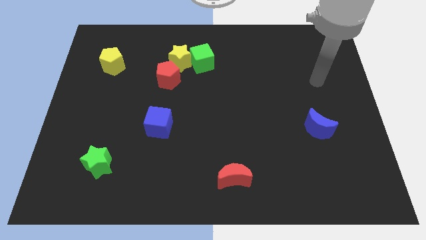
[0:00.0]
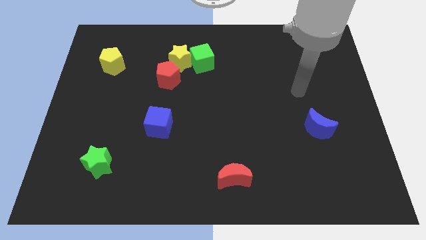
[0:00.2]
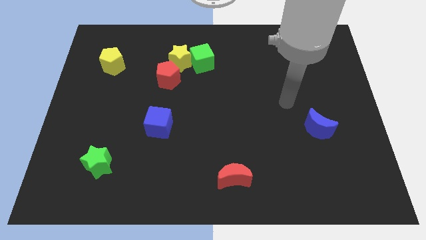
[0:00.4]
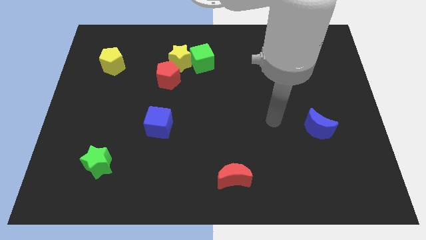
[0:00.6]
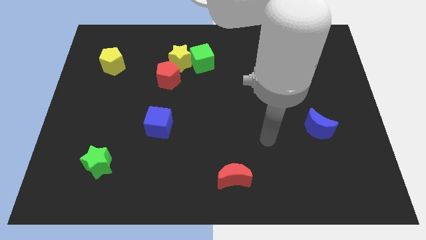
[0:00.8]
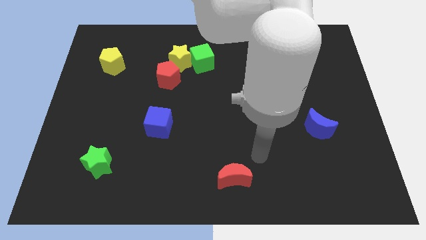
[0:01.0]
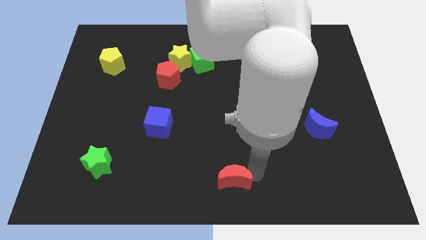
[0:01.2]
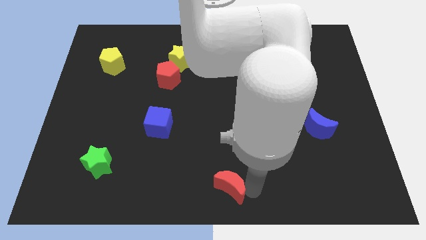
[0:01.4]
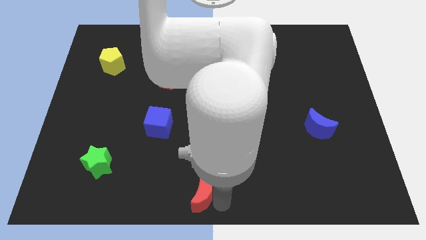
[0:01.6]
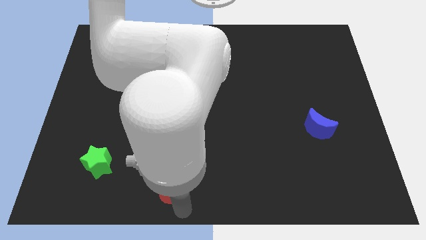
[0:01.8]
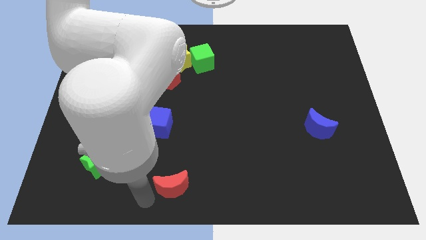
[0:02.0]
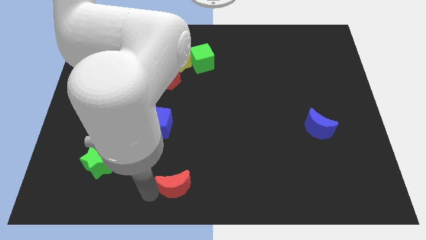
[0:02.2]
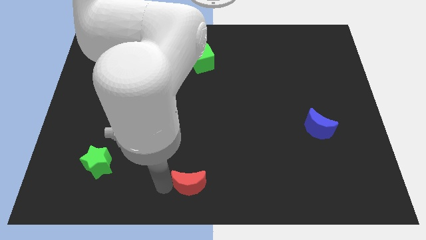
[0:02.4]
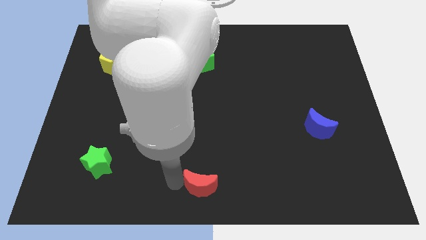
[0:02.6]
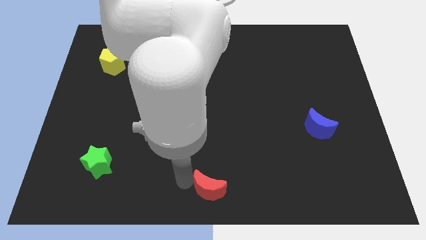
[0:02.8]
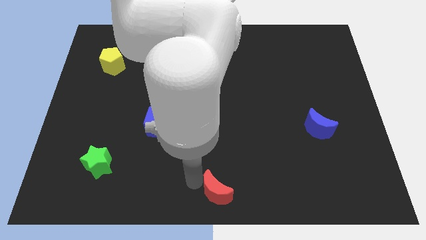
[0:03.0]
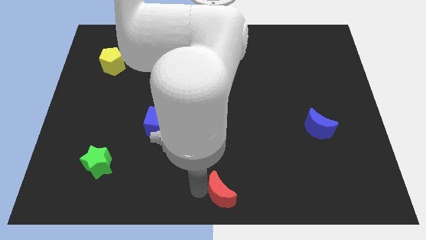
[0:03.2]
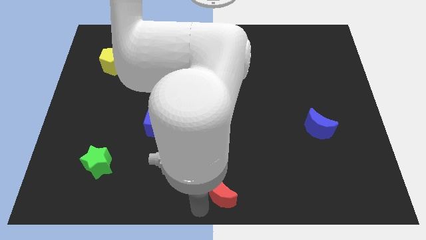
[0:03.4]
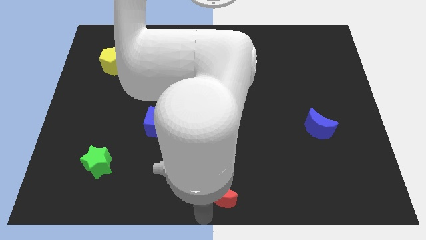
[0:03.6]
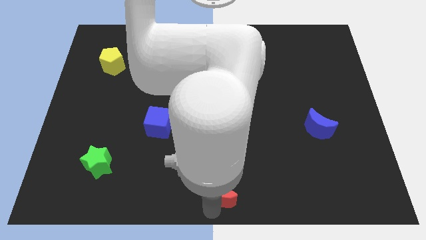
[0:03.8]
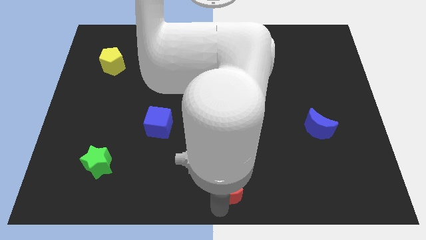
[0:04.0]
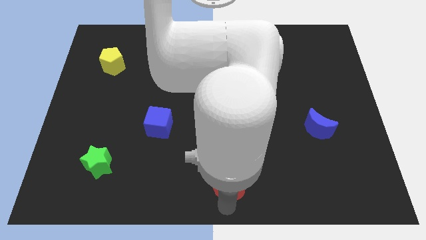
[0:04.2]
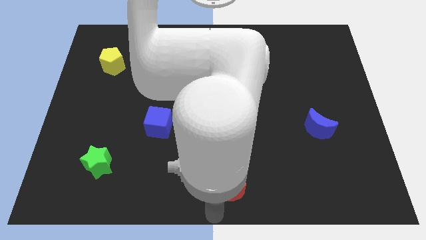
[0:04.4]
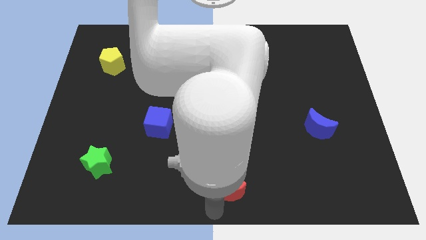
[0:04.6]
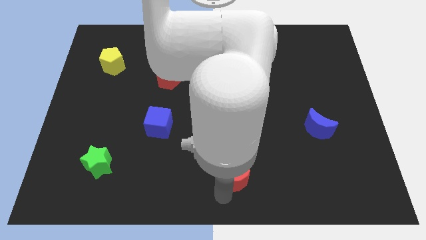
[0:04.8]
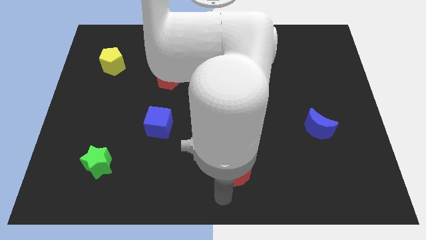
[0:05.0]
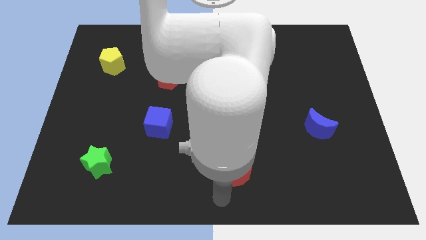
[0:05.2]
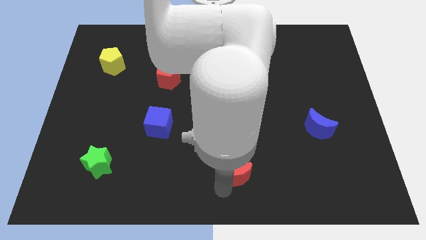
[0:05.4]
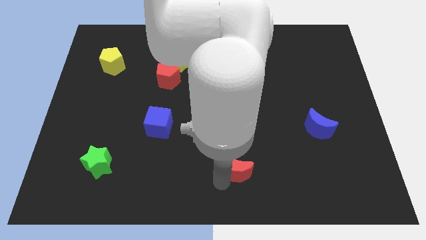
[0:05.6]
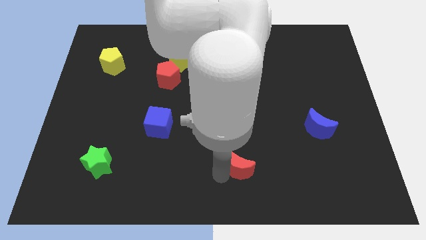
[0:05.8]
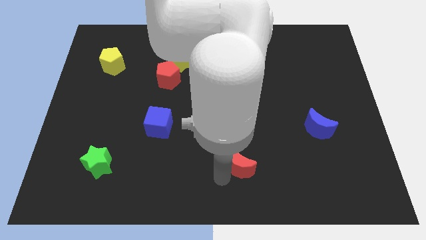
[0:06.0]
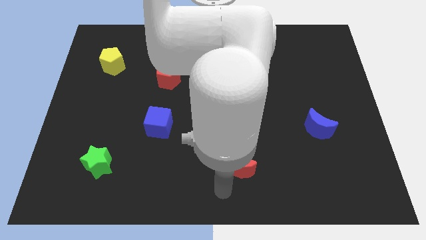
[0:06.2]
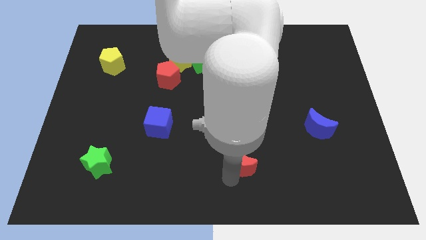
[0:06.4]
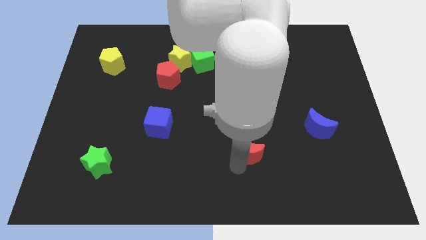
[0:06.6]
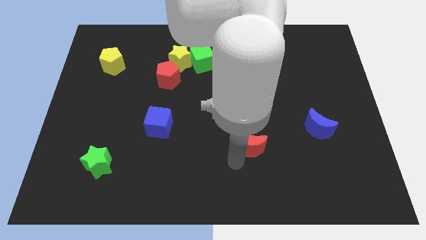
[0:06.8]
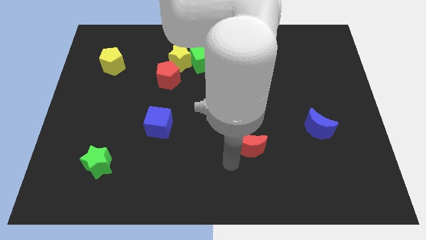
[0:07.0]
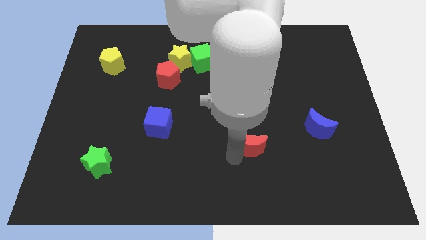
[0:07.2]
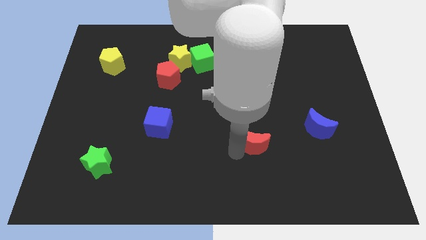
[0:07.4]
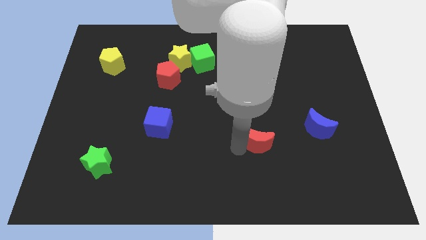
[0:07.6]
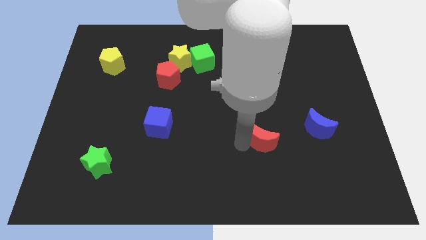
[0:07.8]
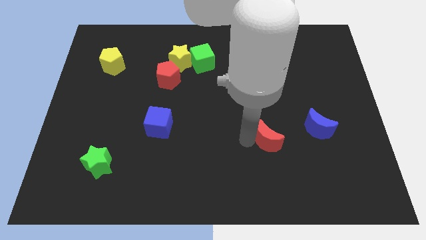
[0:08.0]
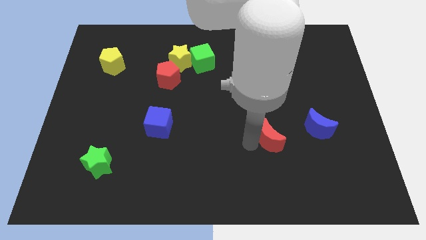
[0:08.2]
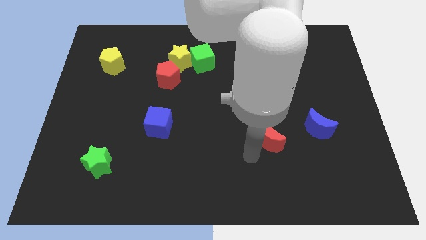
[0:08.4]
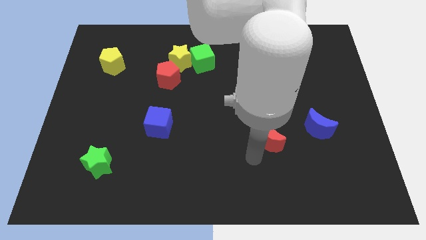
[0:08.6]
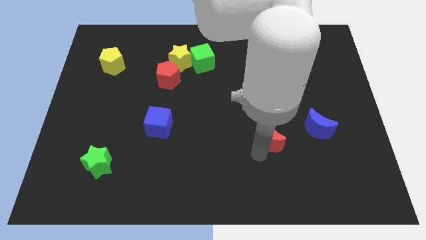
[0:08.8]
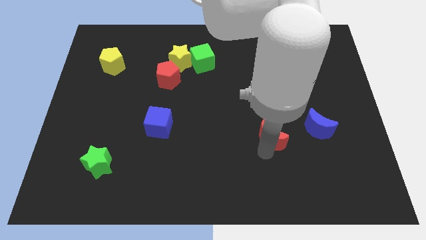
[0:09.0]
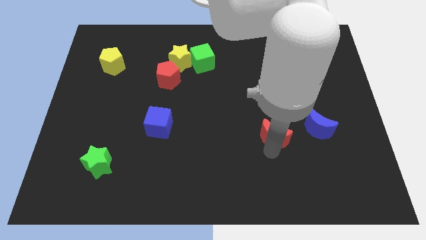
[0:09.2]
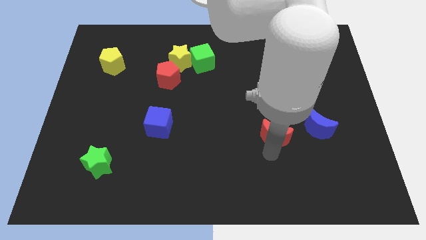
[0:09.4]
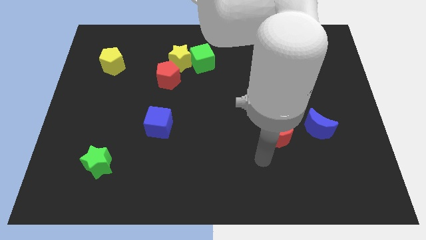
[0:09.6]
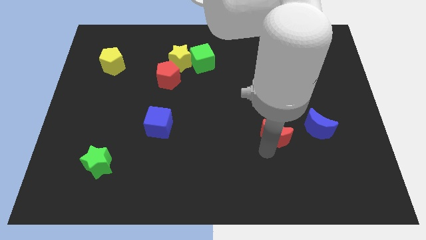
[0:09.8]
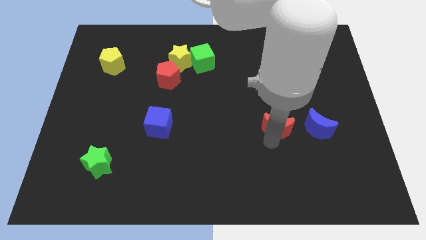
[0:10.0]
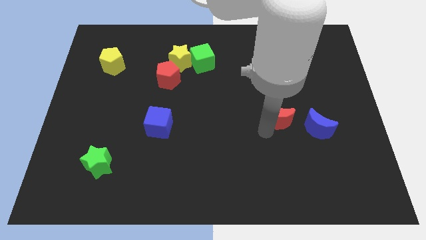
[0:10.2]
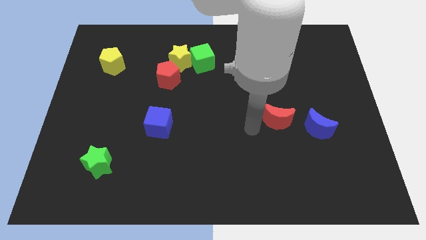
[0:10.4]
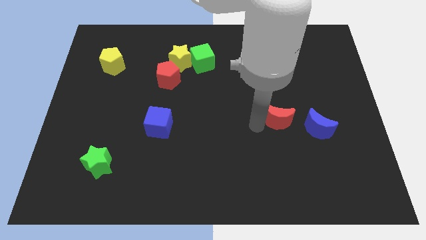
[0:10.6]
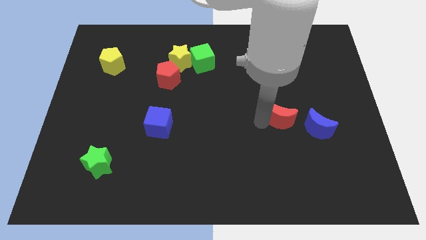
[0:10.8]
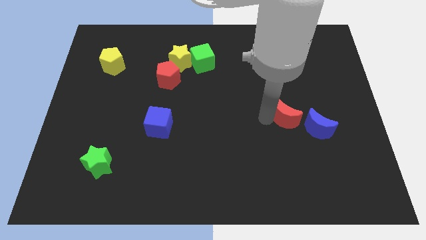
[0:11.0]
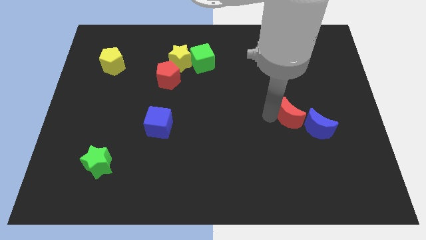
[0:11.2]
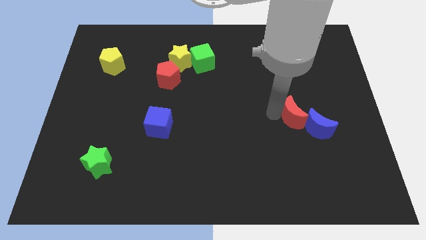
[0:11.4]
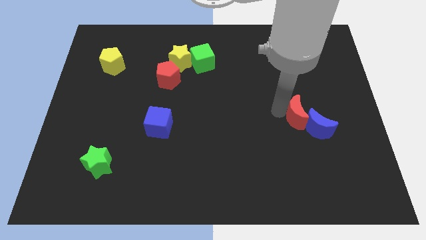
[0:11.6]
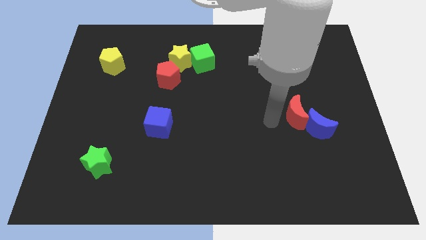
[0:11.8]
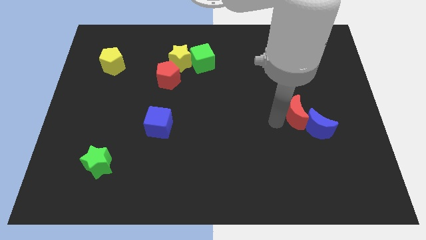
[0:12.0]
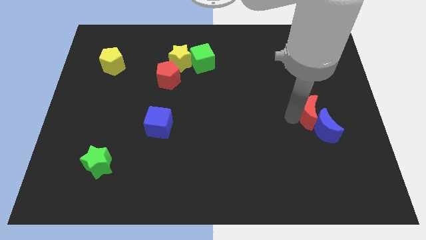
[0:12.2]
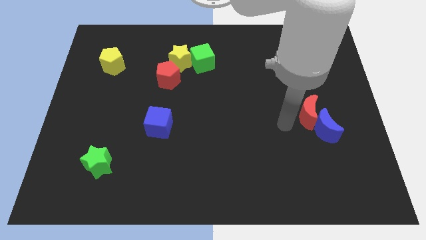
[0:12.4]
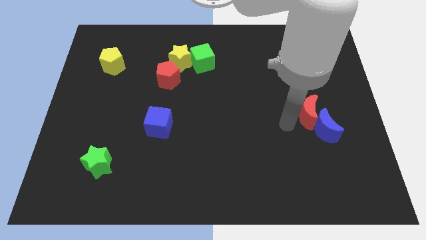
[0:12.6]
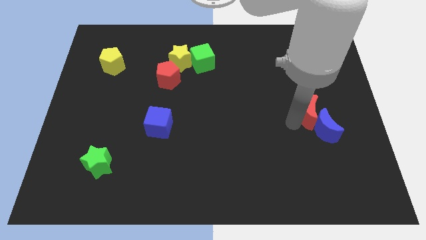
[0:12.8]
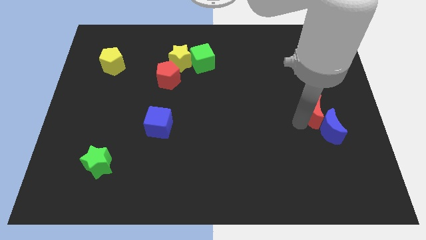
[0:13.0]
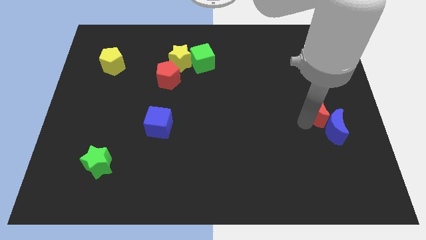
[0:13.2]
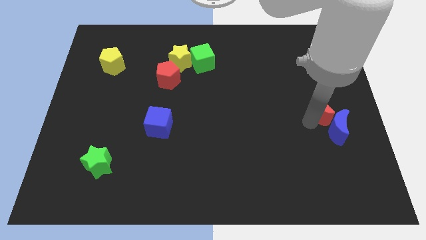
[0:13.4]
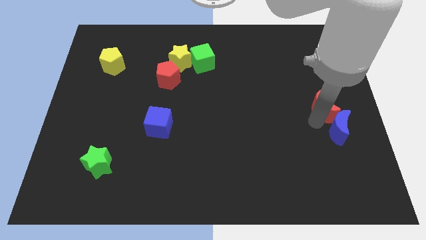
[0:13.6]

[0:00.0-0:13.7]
slide the red moon to the right side of the board
